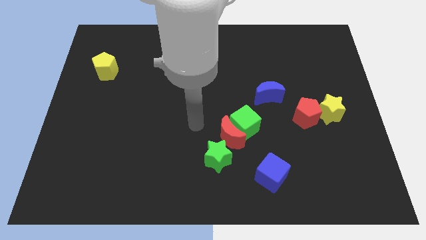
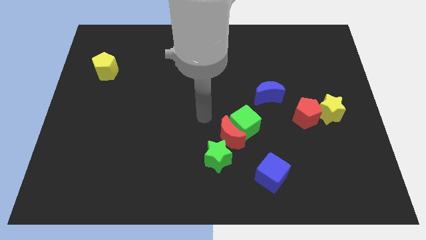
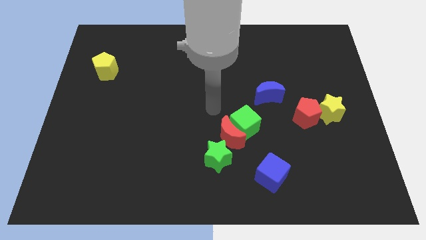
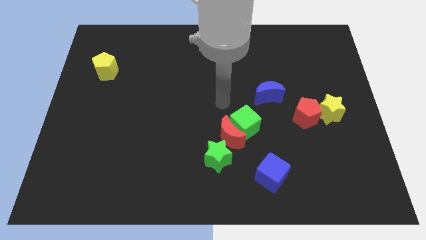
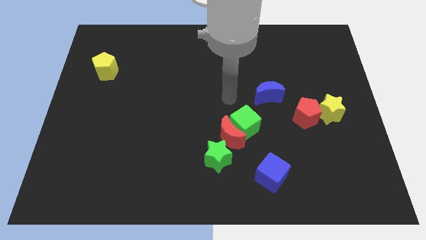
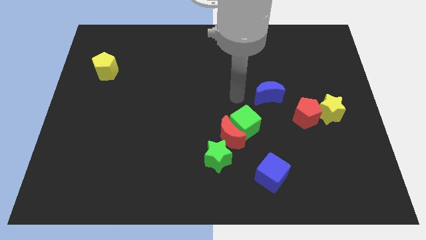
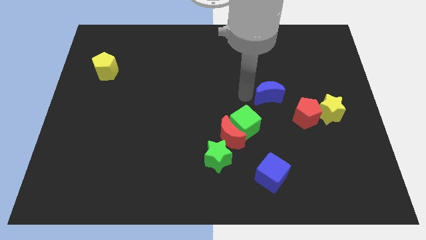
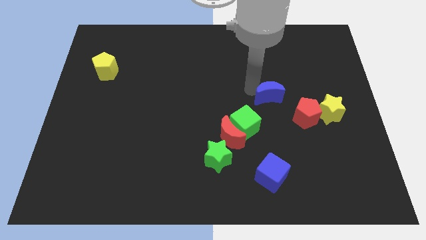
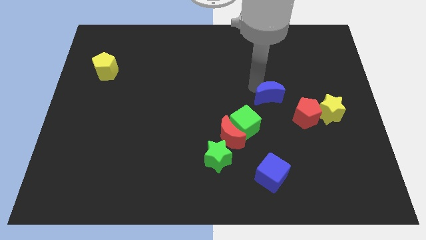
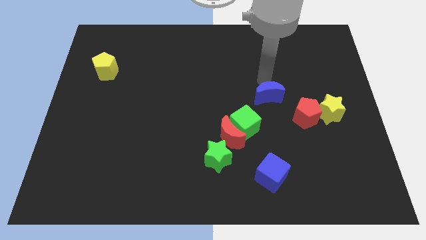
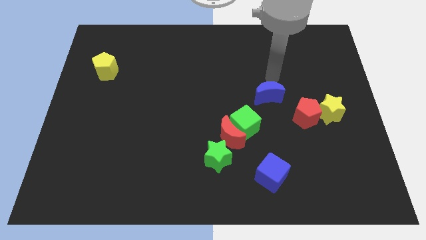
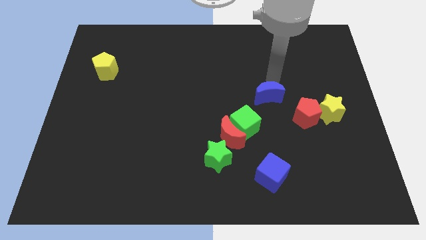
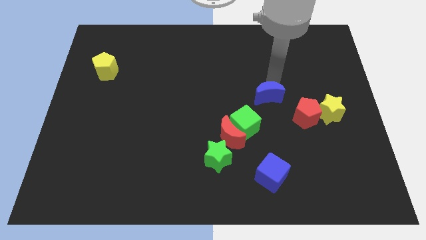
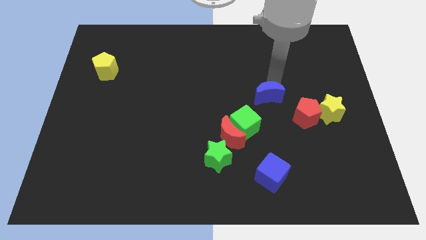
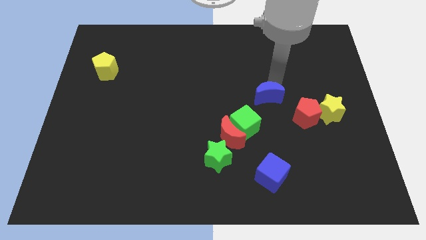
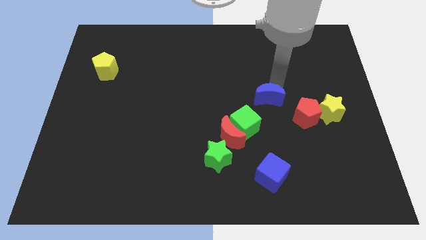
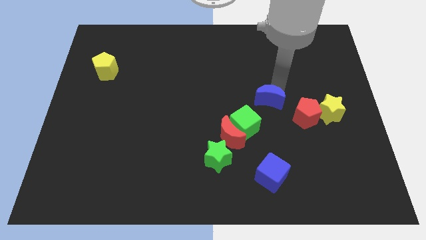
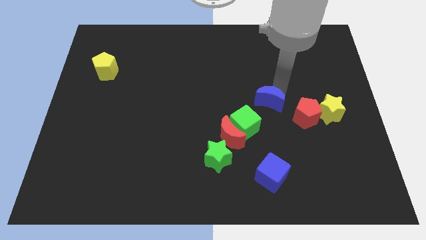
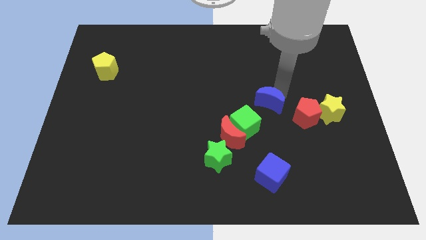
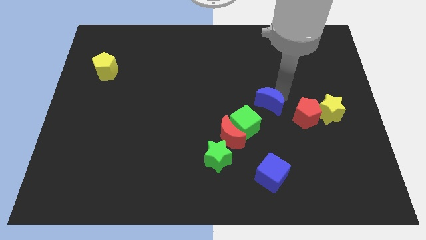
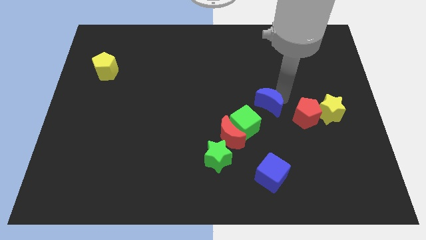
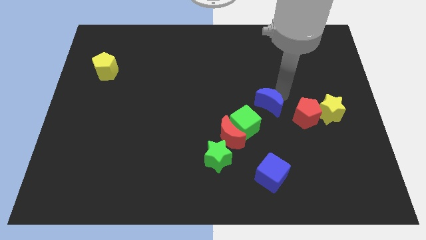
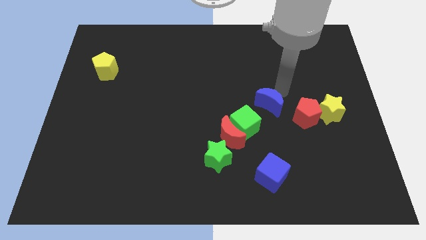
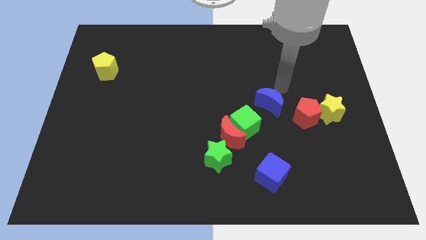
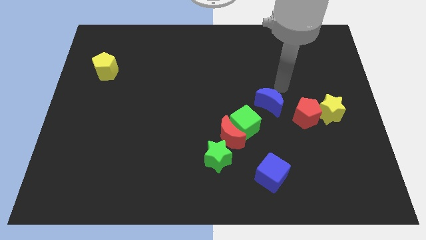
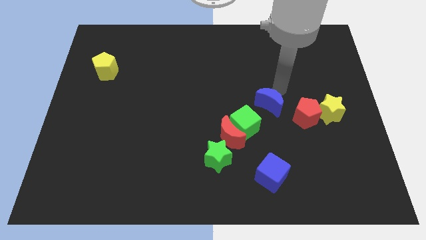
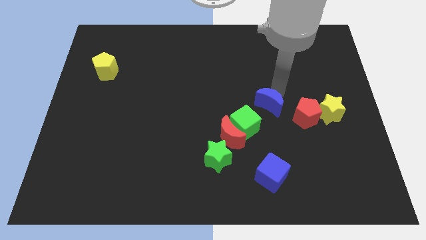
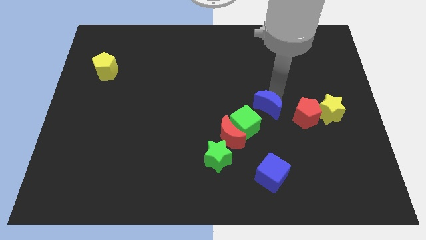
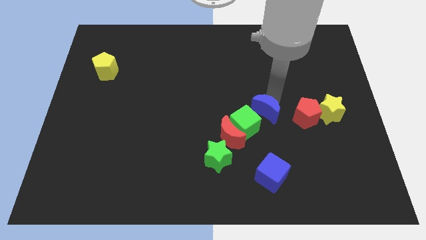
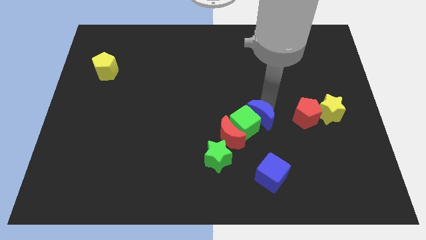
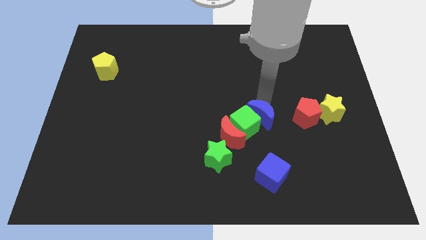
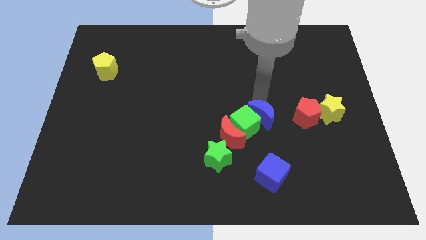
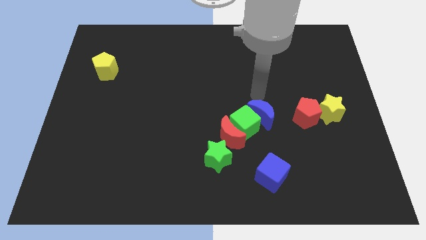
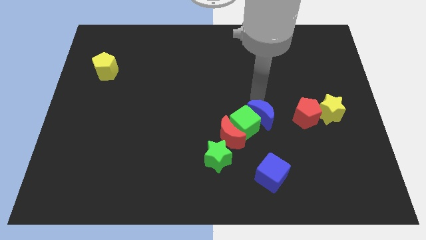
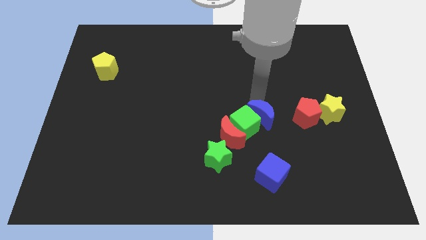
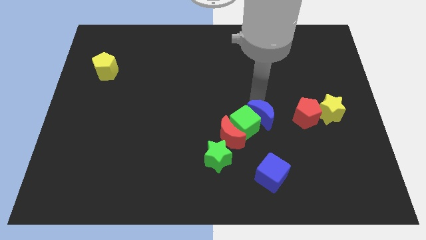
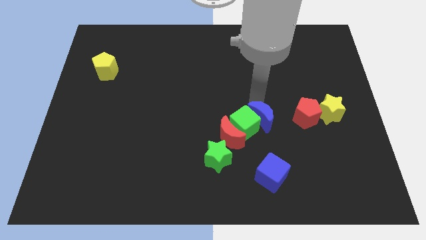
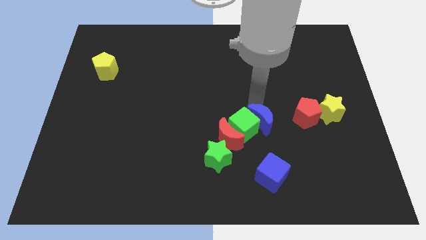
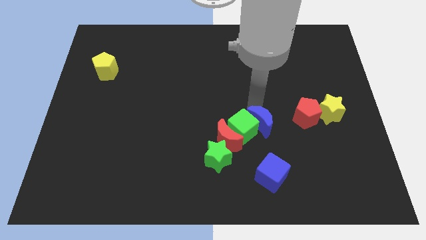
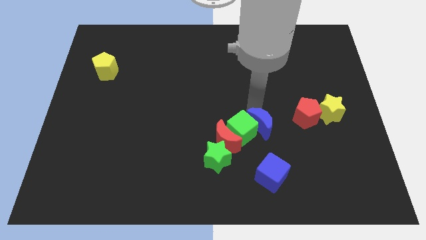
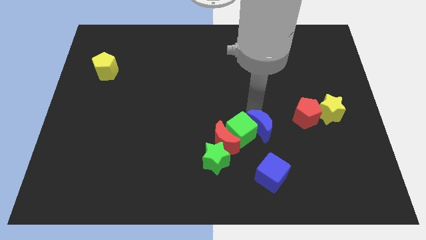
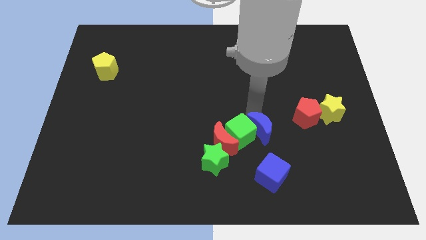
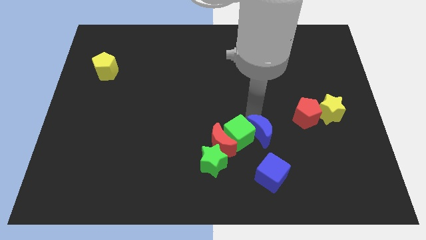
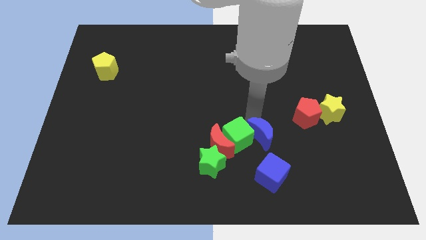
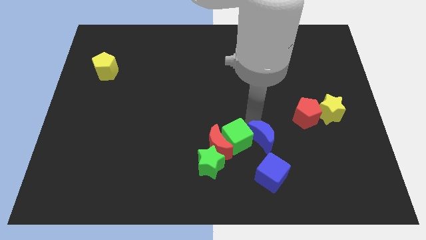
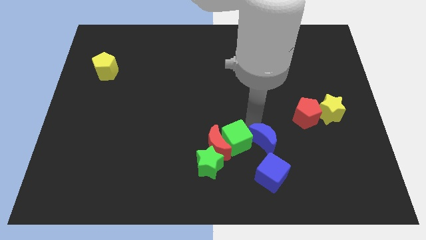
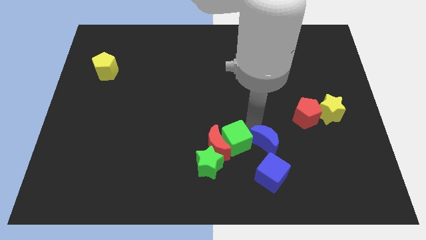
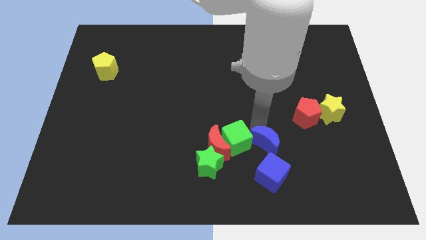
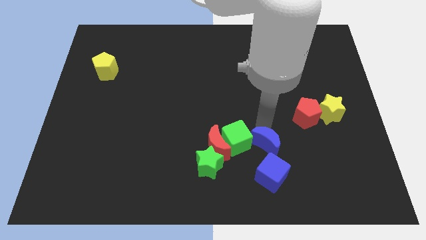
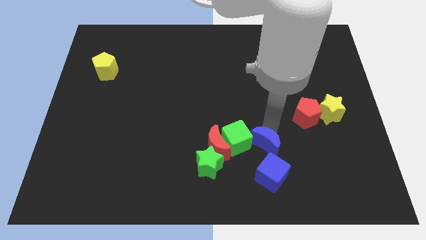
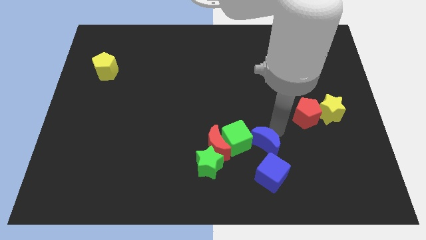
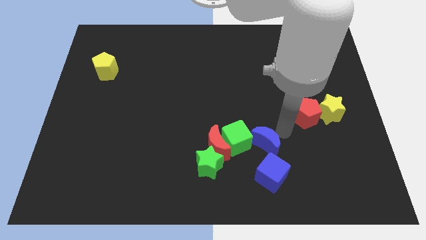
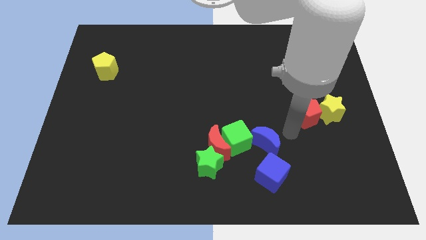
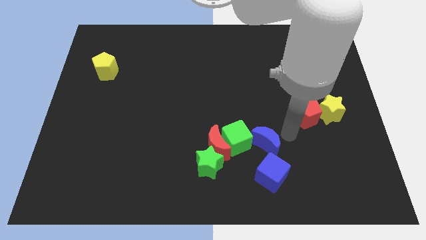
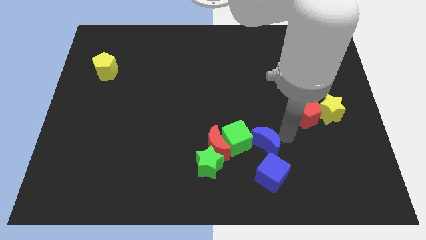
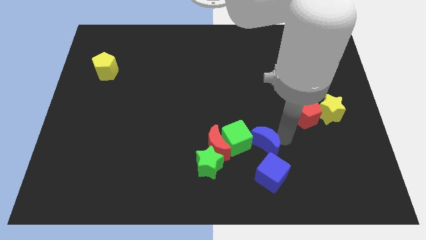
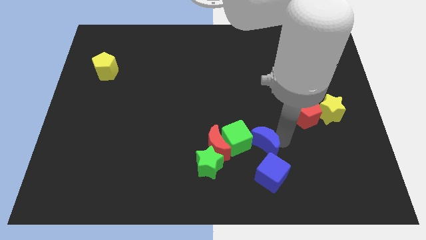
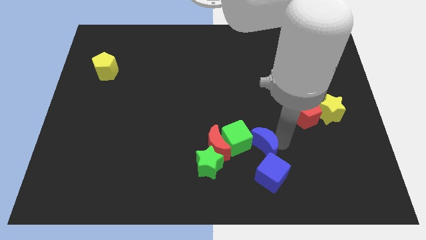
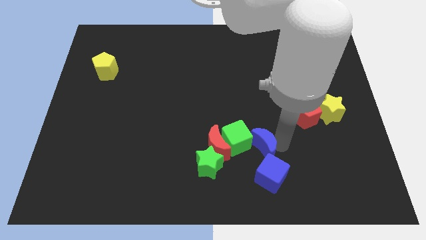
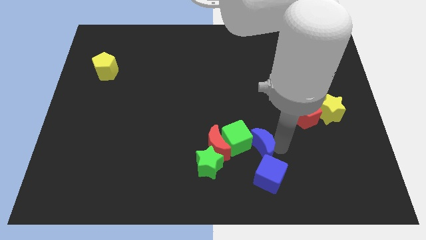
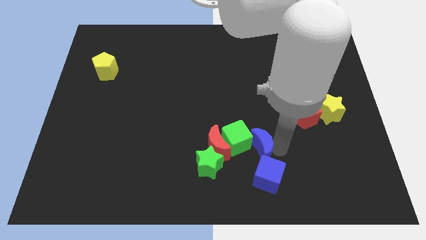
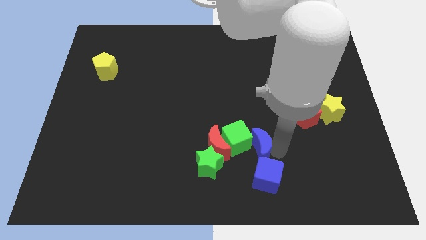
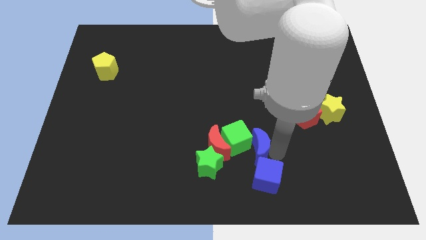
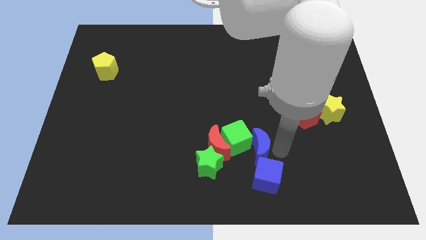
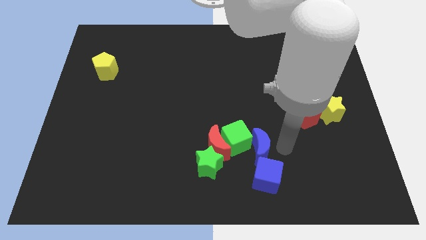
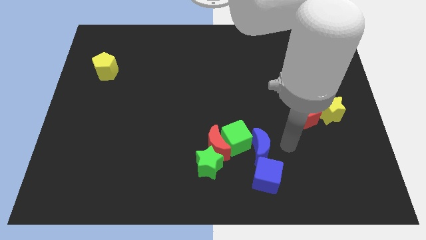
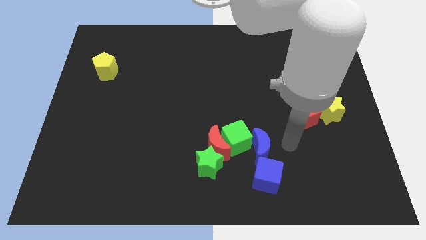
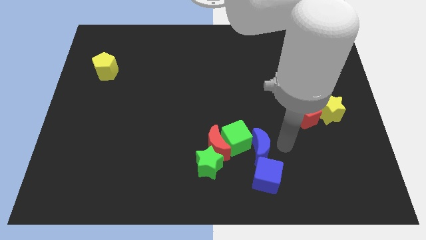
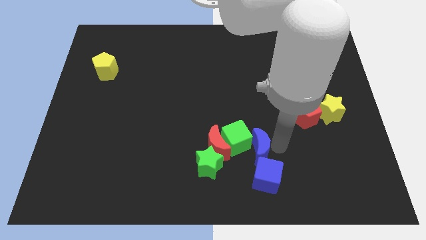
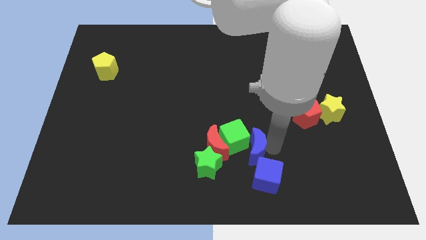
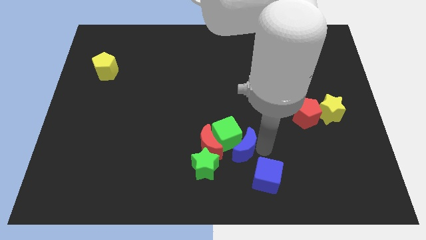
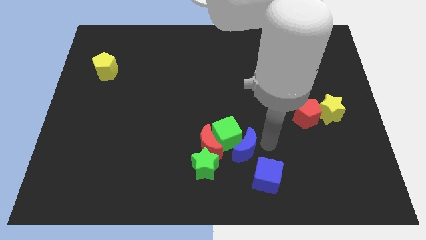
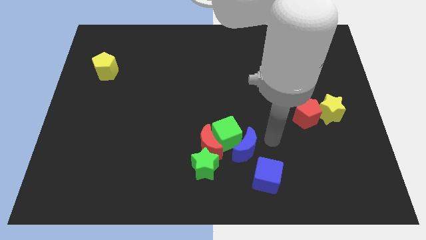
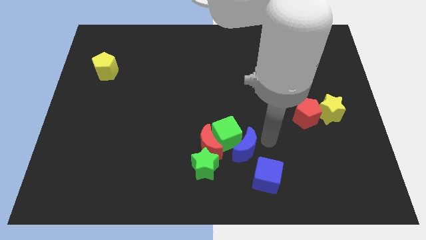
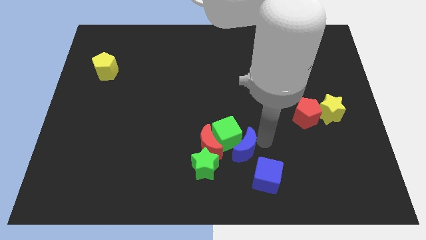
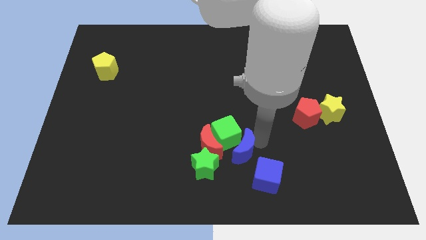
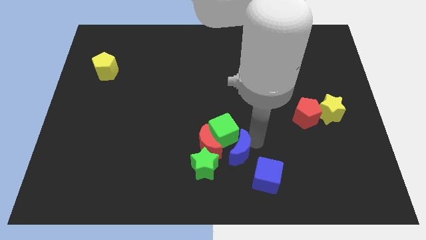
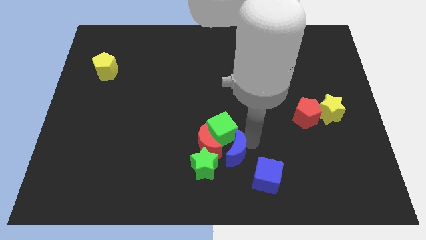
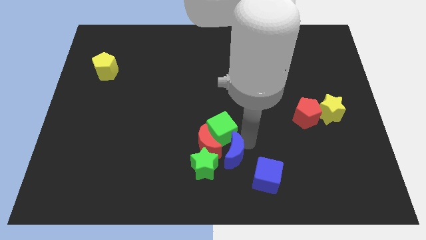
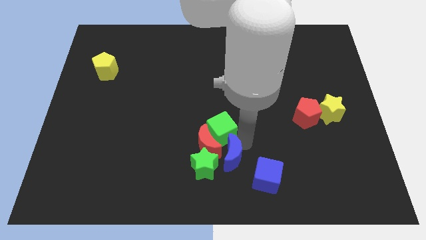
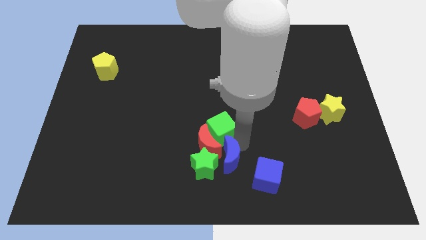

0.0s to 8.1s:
put the blue moon to the green star
